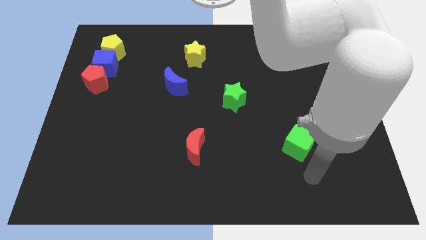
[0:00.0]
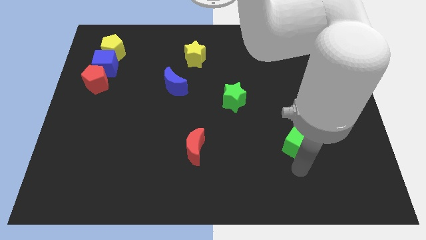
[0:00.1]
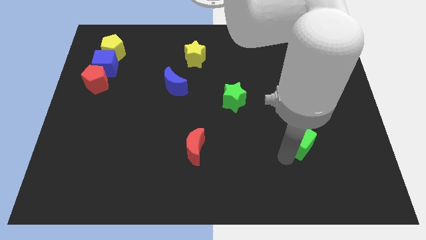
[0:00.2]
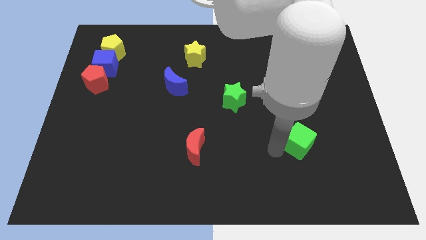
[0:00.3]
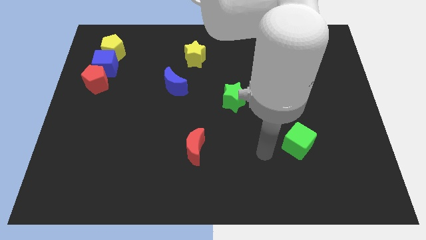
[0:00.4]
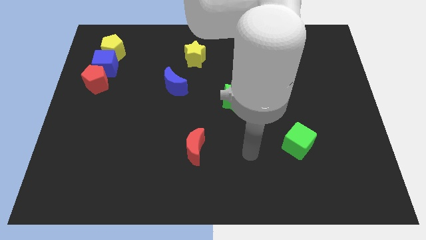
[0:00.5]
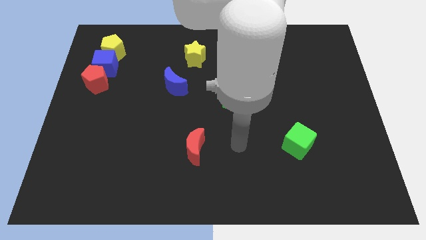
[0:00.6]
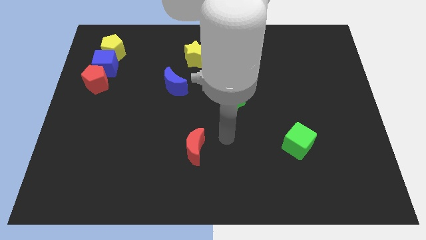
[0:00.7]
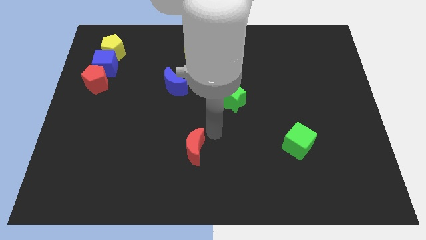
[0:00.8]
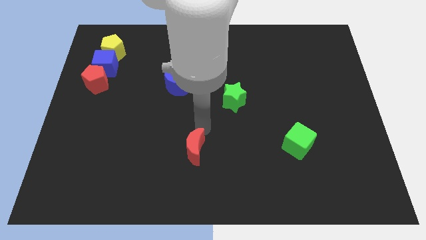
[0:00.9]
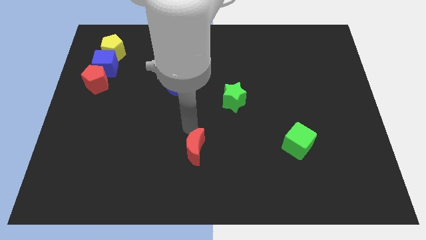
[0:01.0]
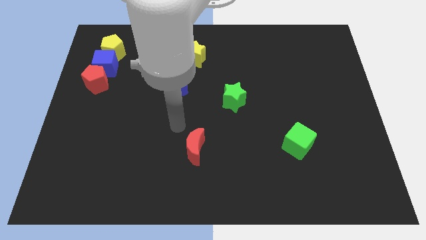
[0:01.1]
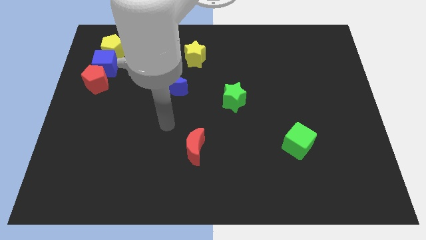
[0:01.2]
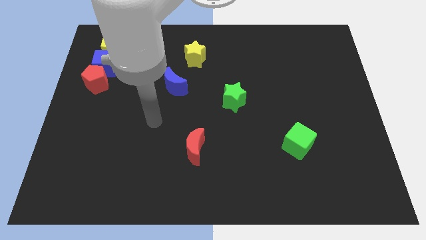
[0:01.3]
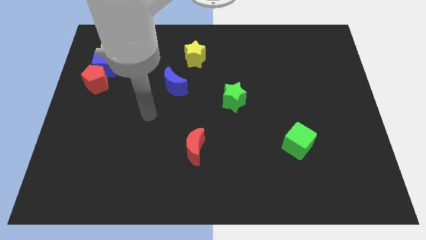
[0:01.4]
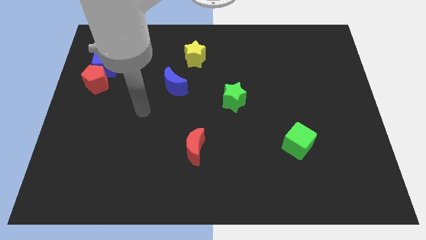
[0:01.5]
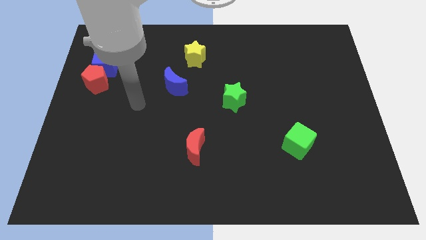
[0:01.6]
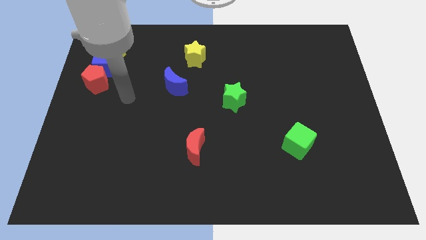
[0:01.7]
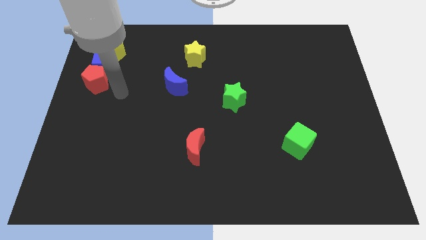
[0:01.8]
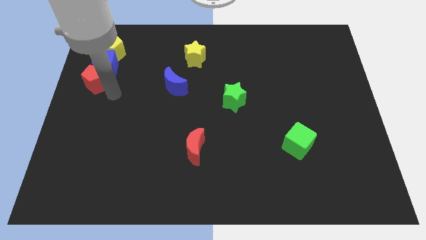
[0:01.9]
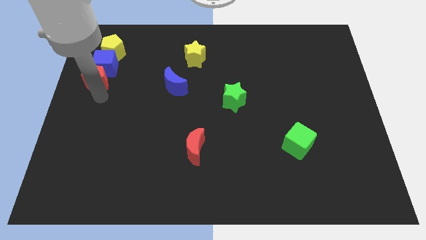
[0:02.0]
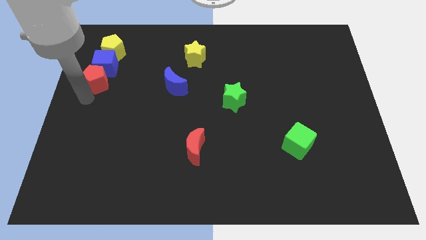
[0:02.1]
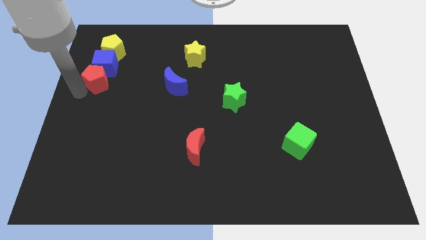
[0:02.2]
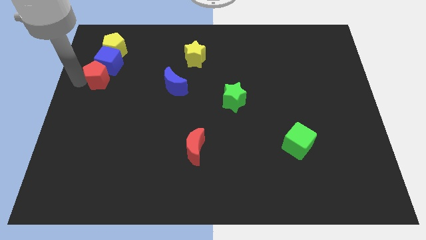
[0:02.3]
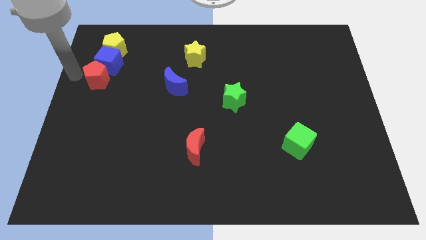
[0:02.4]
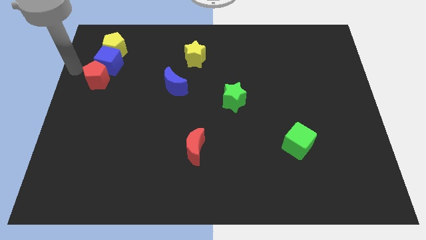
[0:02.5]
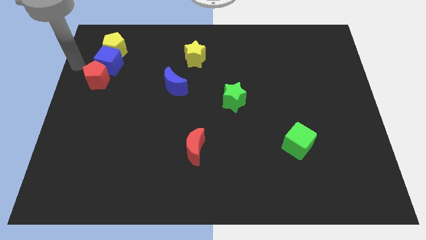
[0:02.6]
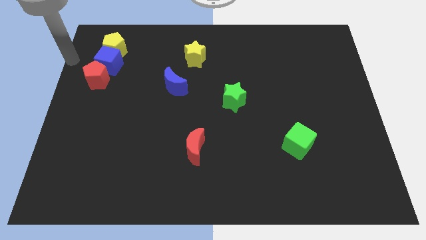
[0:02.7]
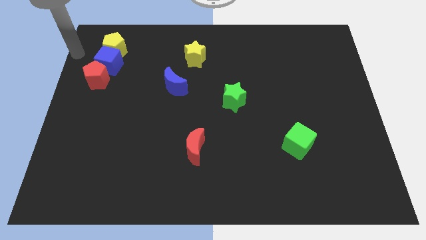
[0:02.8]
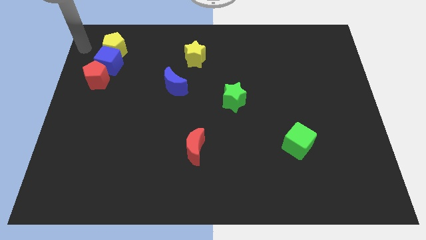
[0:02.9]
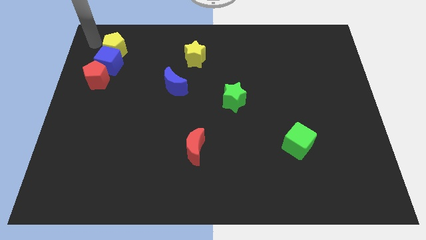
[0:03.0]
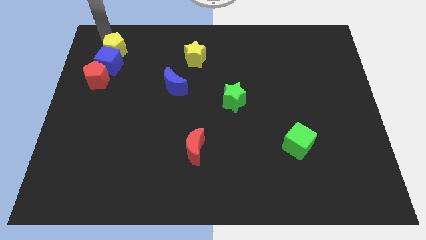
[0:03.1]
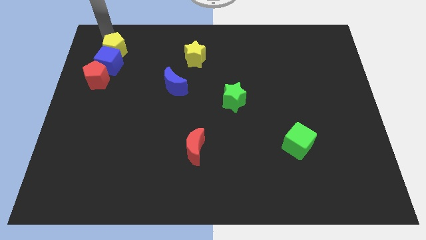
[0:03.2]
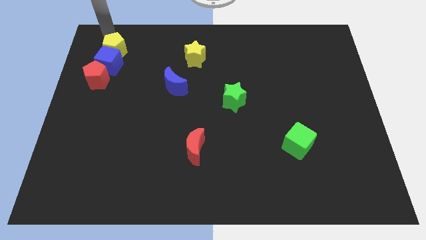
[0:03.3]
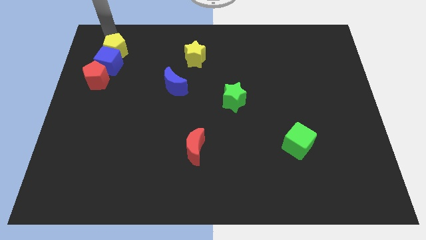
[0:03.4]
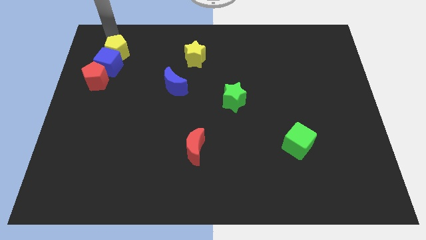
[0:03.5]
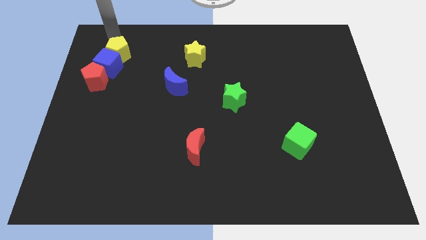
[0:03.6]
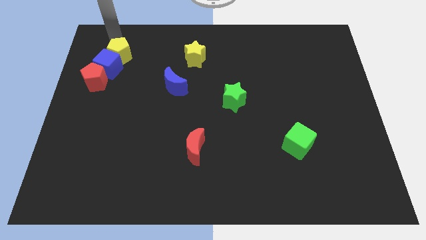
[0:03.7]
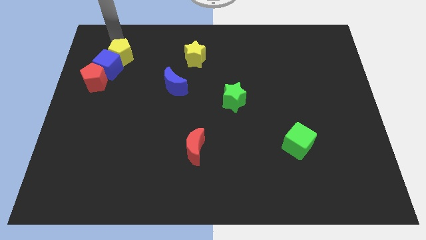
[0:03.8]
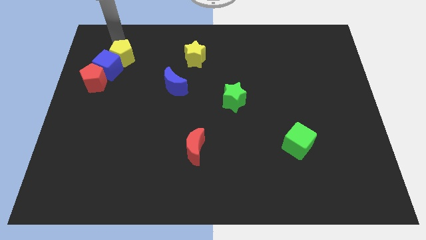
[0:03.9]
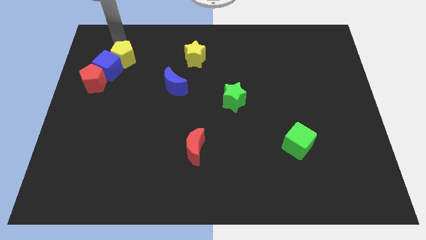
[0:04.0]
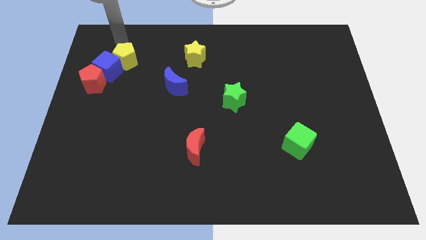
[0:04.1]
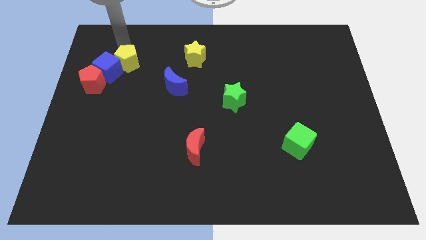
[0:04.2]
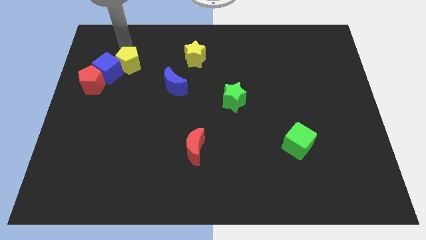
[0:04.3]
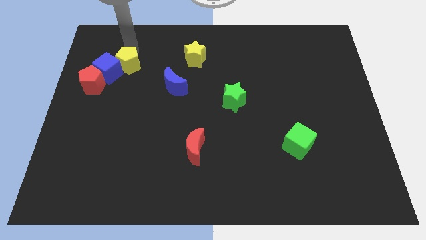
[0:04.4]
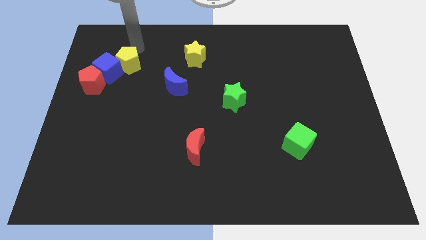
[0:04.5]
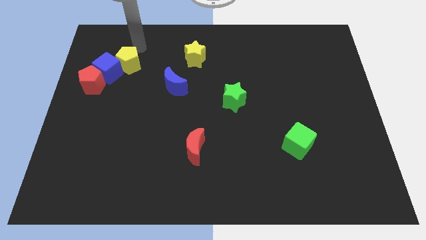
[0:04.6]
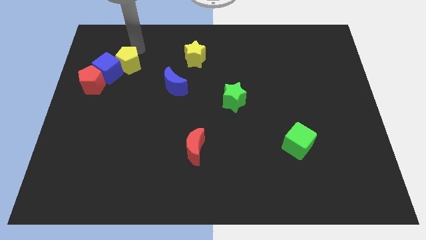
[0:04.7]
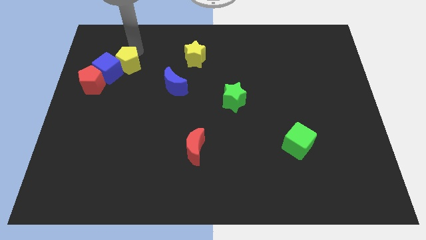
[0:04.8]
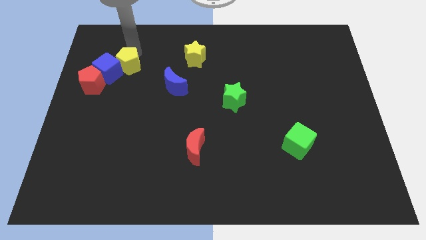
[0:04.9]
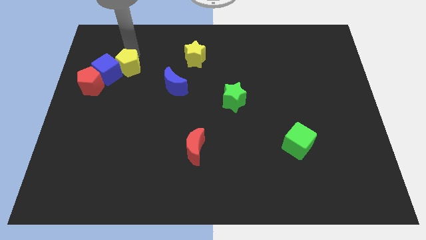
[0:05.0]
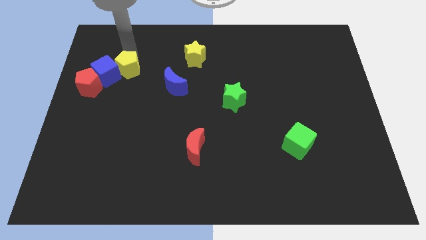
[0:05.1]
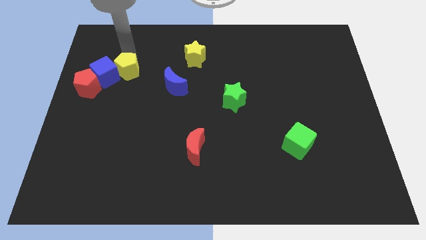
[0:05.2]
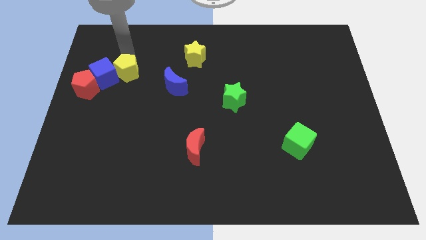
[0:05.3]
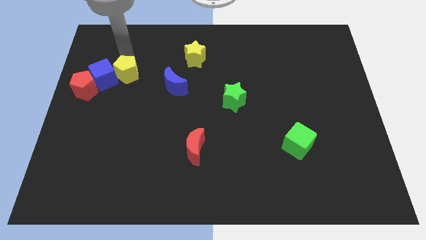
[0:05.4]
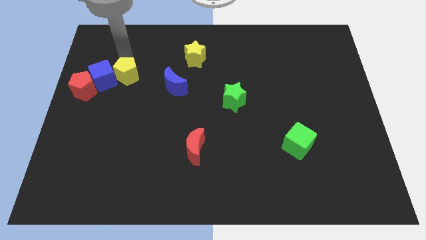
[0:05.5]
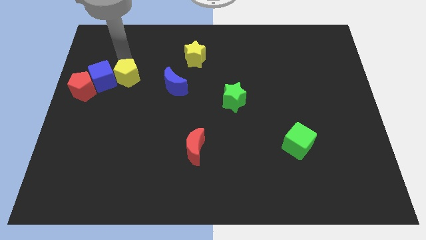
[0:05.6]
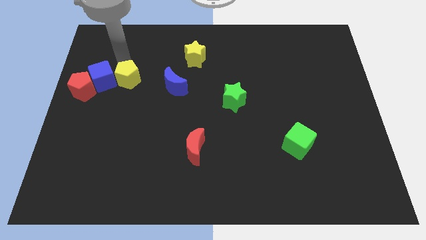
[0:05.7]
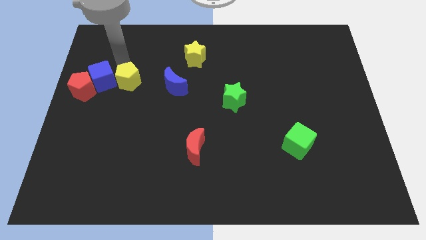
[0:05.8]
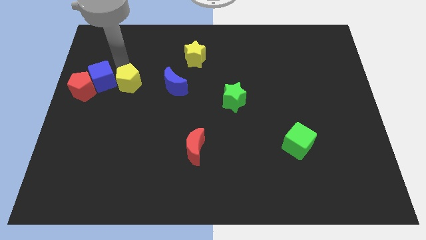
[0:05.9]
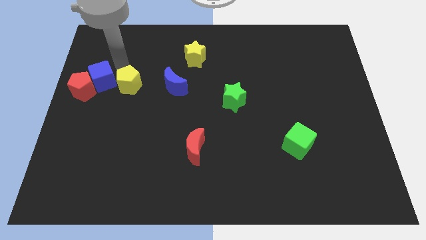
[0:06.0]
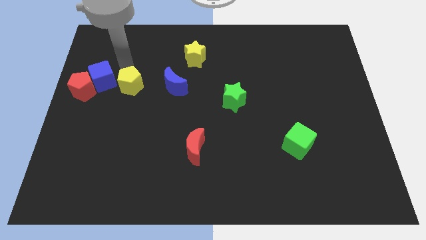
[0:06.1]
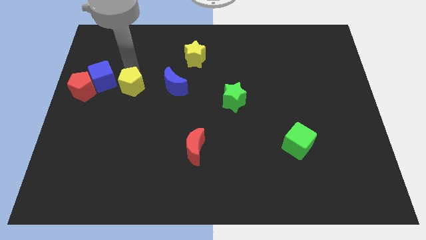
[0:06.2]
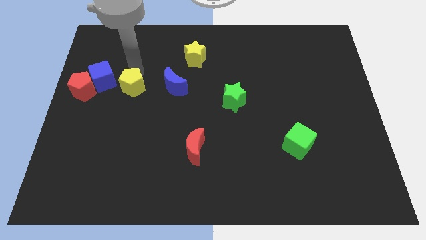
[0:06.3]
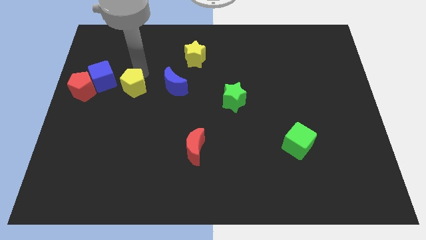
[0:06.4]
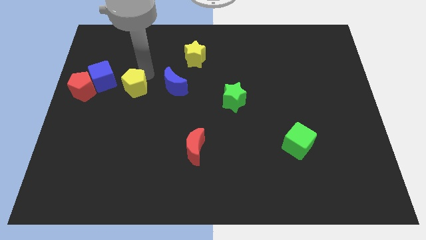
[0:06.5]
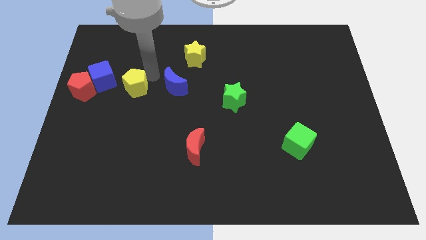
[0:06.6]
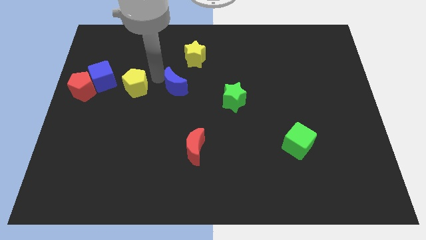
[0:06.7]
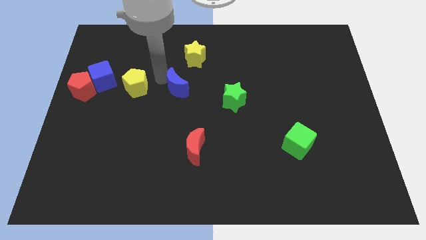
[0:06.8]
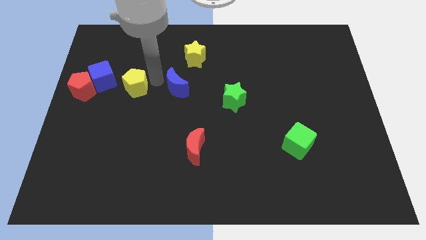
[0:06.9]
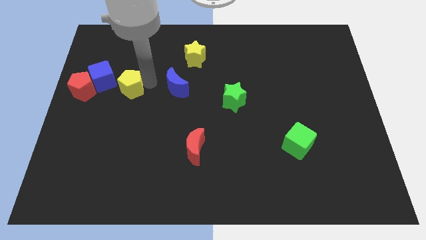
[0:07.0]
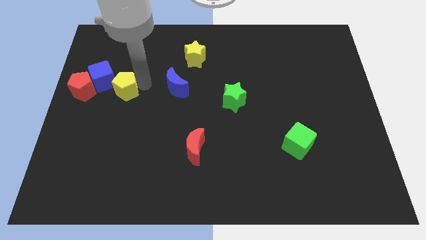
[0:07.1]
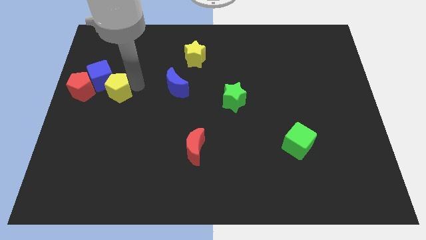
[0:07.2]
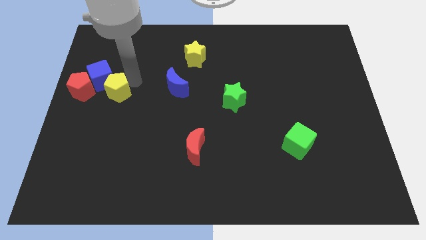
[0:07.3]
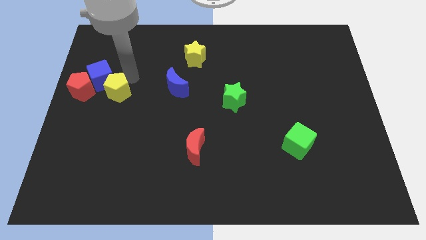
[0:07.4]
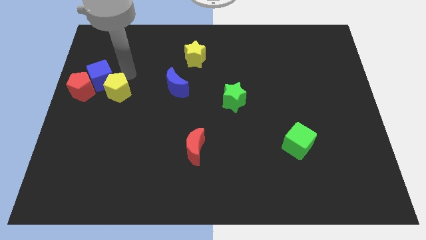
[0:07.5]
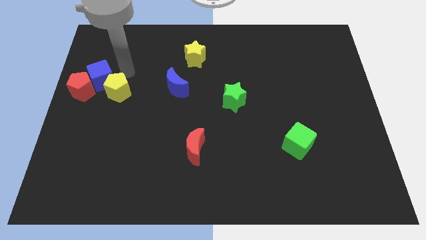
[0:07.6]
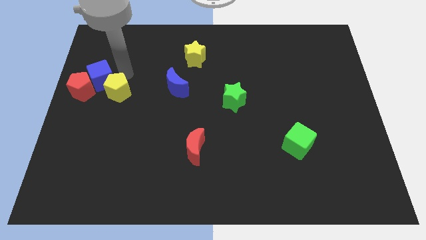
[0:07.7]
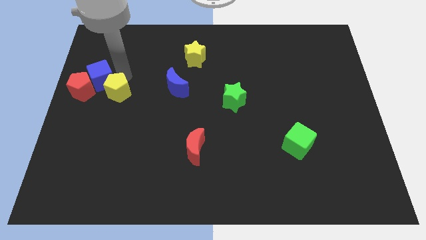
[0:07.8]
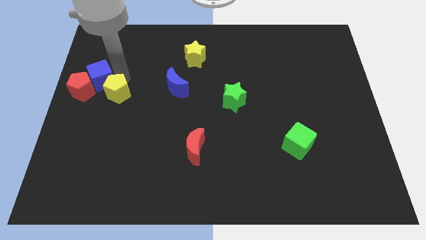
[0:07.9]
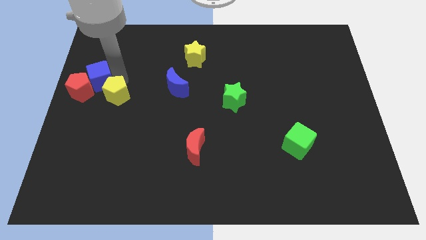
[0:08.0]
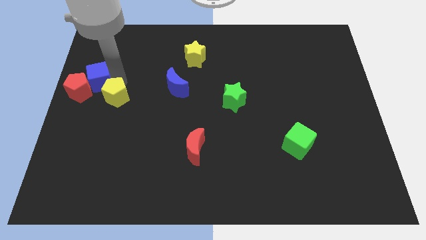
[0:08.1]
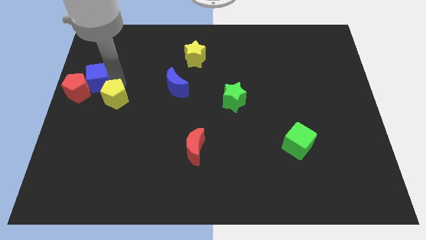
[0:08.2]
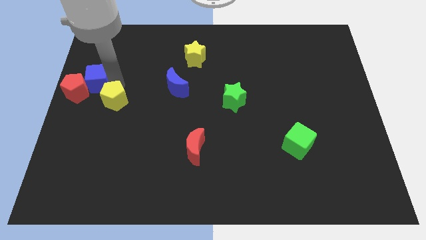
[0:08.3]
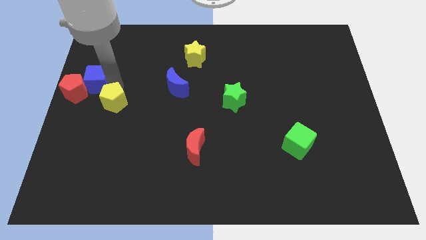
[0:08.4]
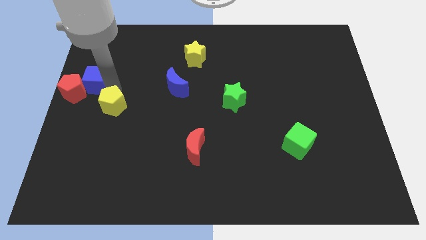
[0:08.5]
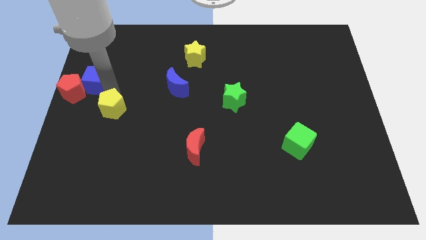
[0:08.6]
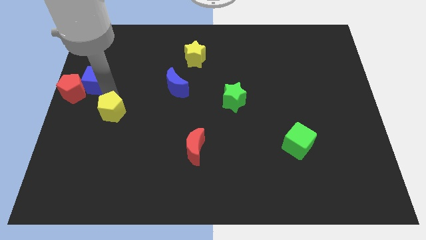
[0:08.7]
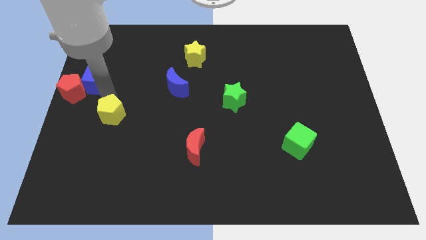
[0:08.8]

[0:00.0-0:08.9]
push the yellow pentagon down
